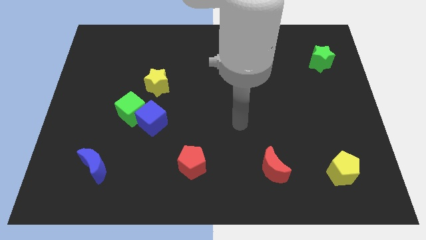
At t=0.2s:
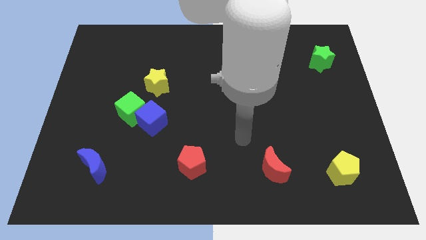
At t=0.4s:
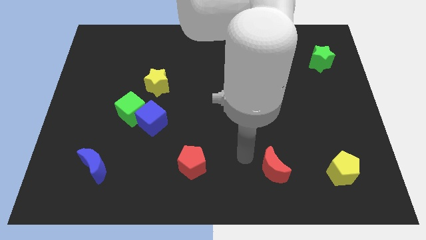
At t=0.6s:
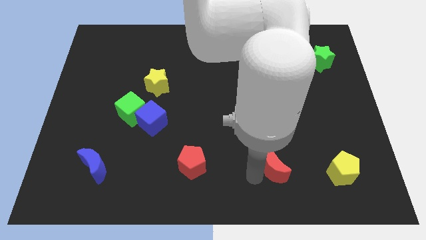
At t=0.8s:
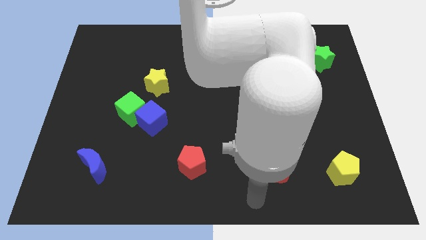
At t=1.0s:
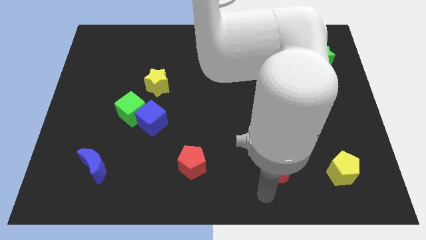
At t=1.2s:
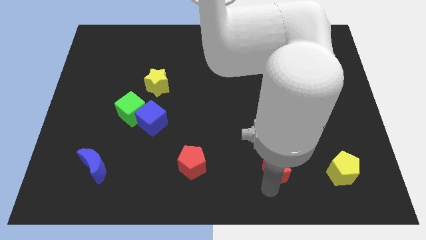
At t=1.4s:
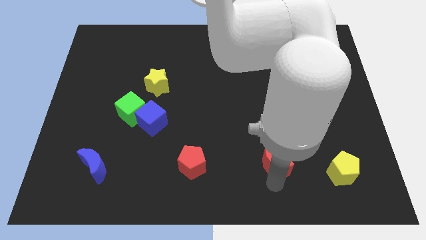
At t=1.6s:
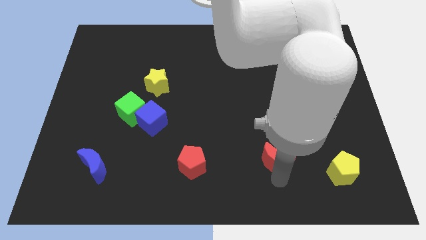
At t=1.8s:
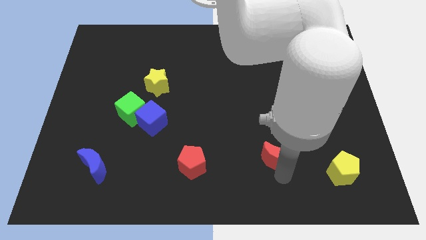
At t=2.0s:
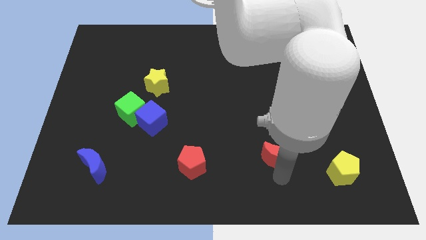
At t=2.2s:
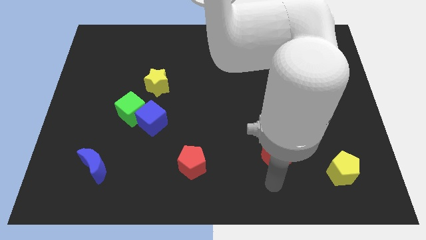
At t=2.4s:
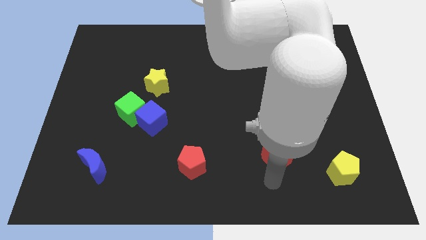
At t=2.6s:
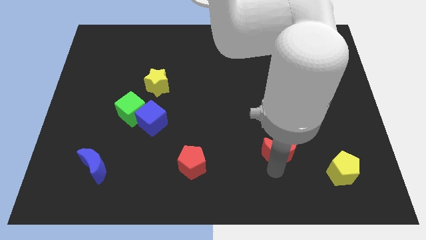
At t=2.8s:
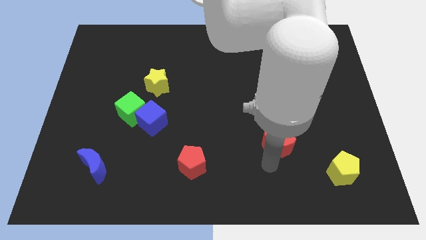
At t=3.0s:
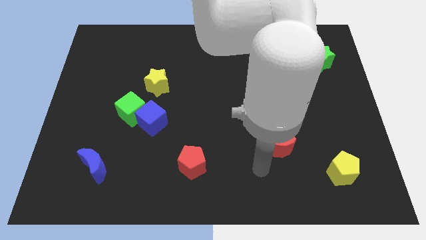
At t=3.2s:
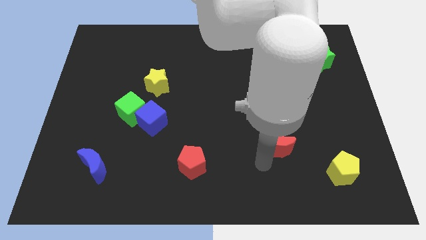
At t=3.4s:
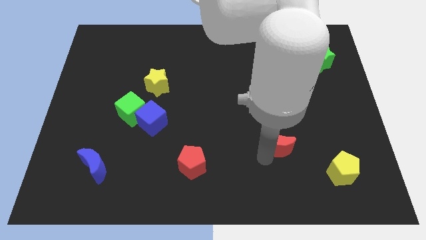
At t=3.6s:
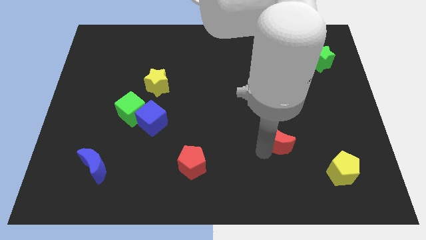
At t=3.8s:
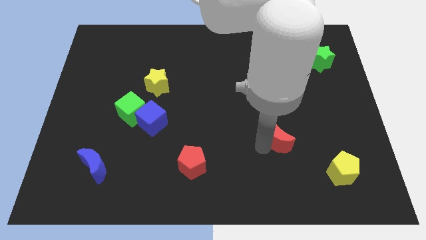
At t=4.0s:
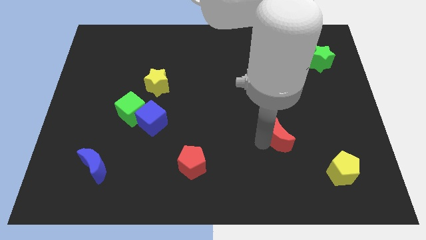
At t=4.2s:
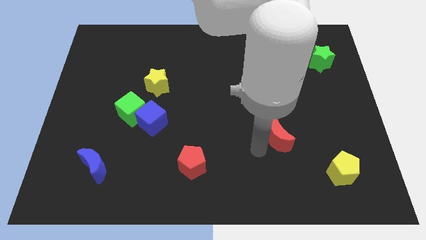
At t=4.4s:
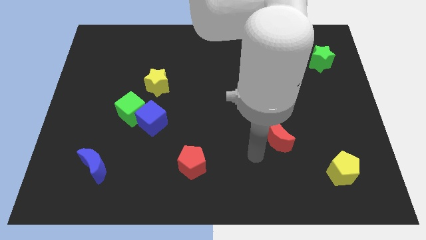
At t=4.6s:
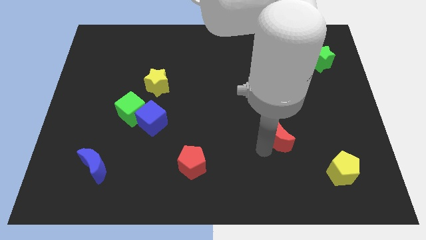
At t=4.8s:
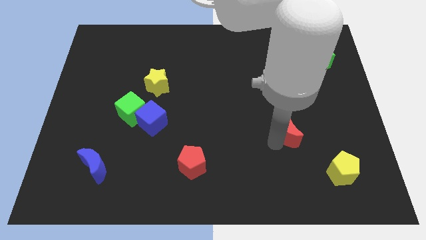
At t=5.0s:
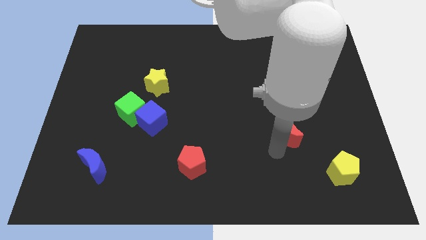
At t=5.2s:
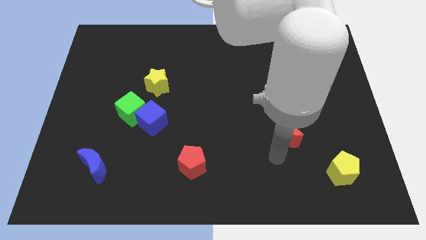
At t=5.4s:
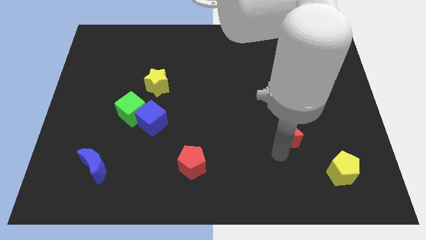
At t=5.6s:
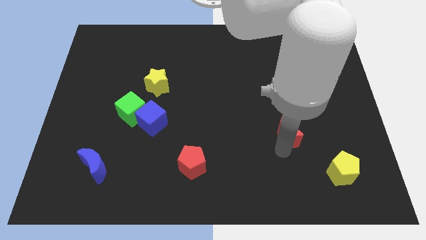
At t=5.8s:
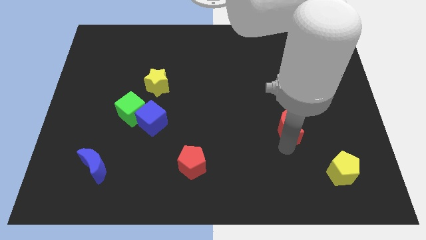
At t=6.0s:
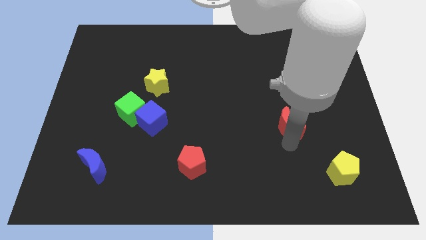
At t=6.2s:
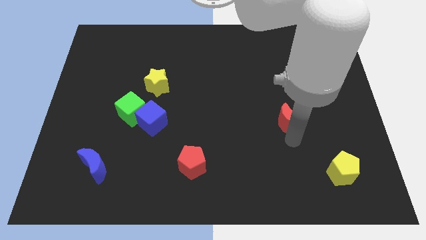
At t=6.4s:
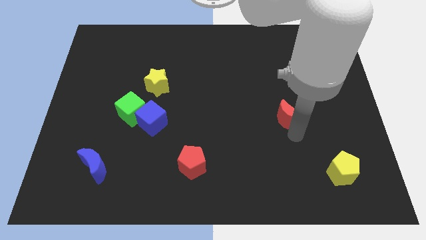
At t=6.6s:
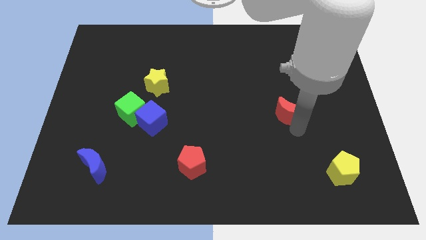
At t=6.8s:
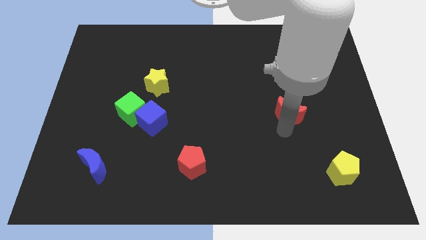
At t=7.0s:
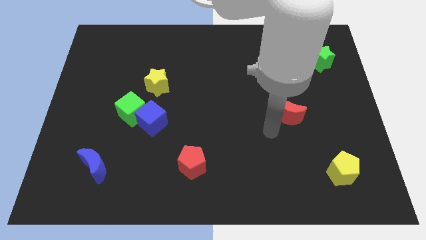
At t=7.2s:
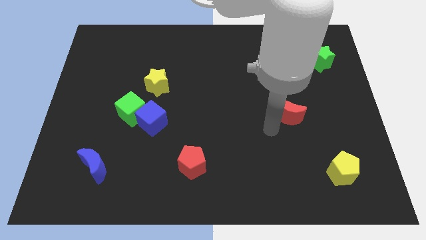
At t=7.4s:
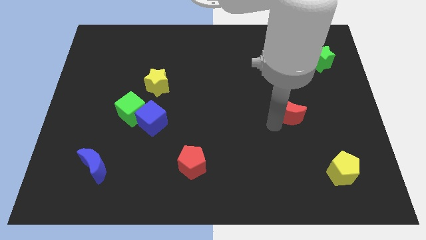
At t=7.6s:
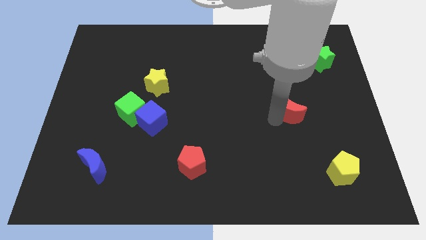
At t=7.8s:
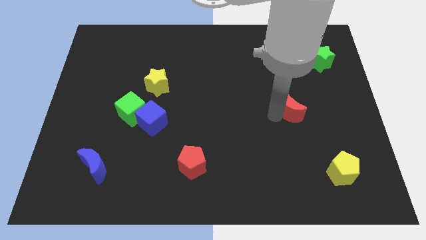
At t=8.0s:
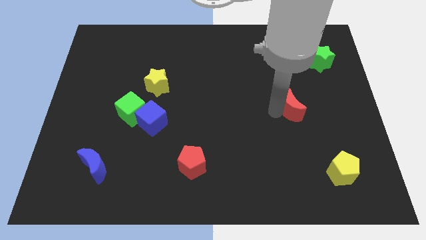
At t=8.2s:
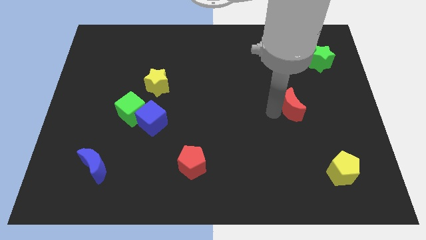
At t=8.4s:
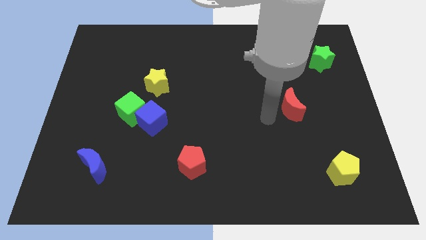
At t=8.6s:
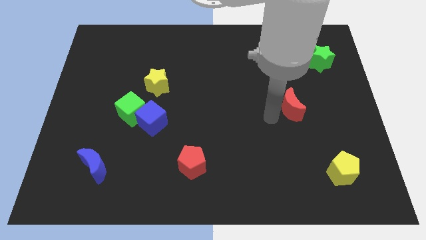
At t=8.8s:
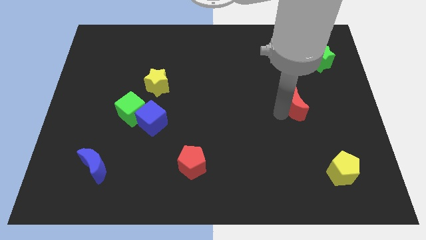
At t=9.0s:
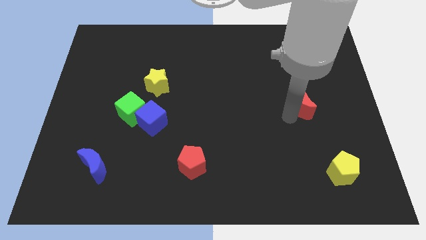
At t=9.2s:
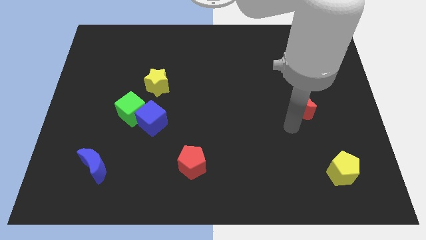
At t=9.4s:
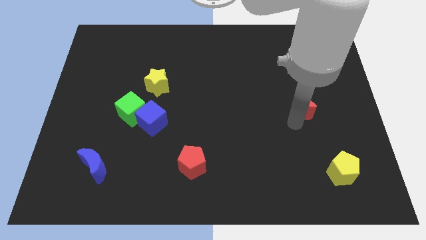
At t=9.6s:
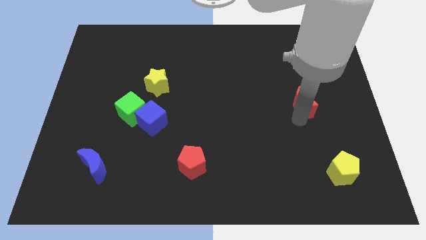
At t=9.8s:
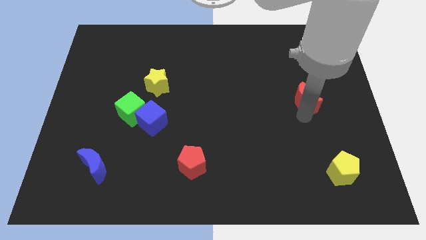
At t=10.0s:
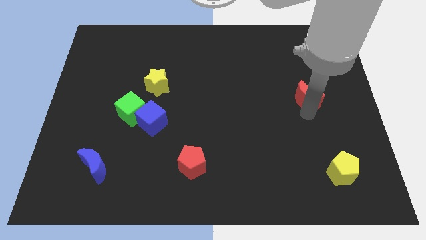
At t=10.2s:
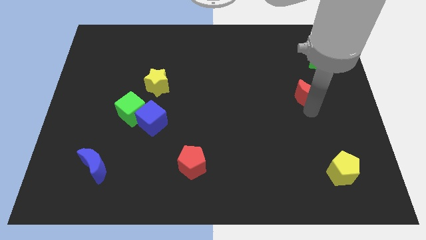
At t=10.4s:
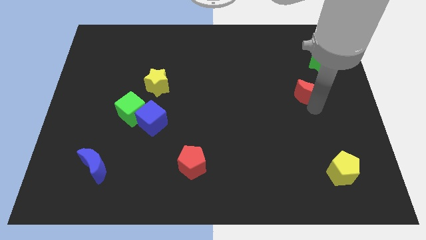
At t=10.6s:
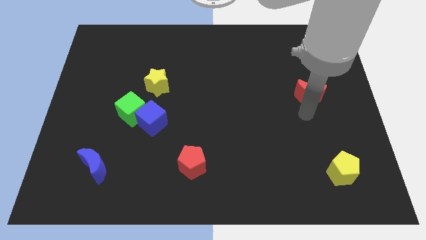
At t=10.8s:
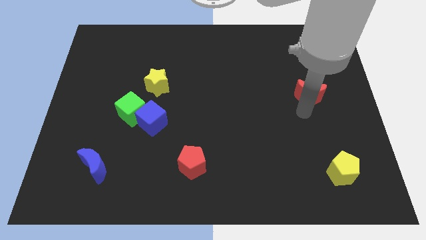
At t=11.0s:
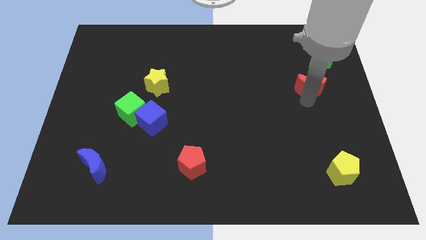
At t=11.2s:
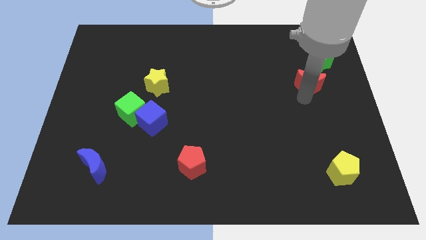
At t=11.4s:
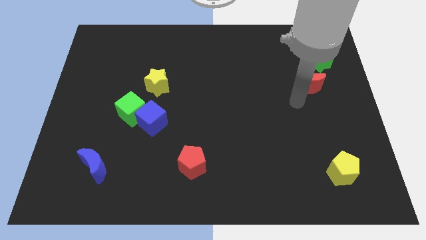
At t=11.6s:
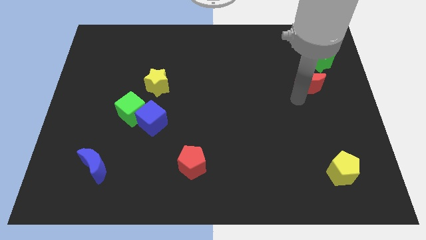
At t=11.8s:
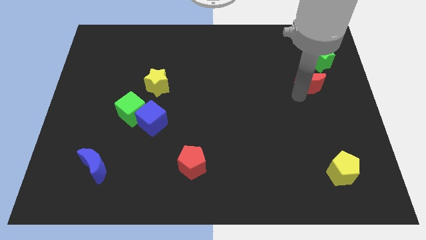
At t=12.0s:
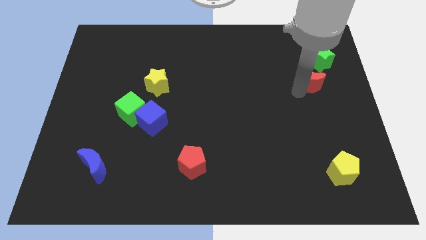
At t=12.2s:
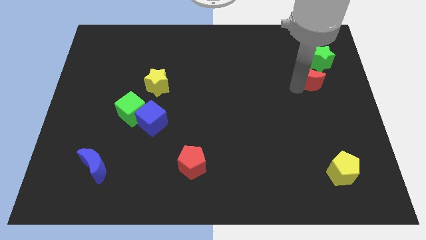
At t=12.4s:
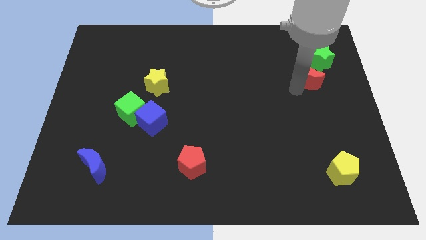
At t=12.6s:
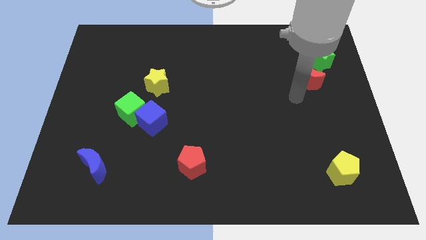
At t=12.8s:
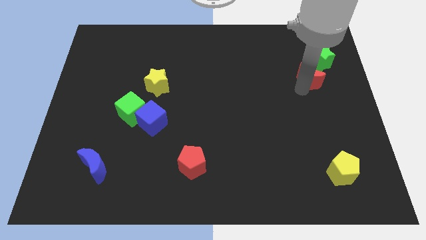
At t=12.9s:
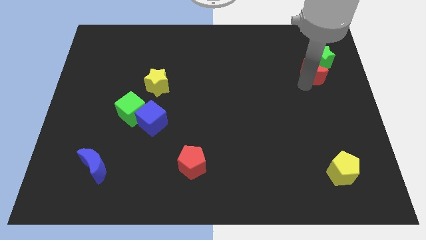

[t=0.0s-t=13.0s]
push the red moon towards the green star

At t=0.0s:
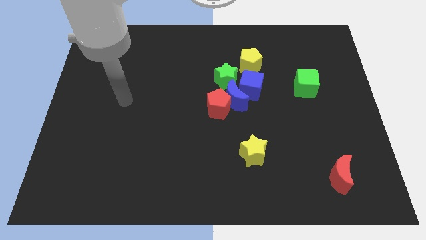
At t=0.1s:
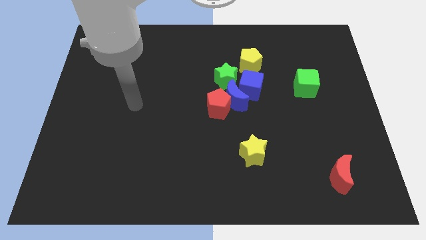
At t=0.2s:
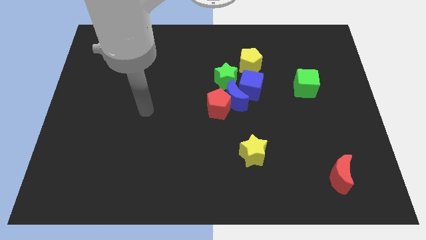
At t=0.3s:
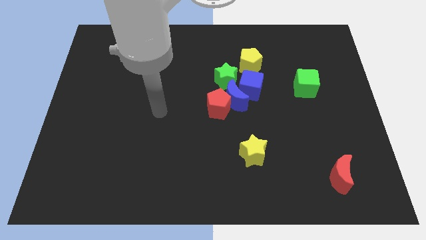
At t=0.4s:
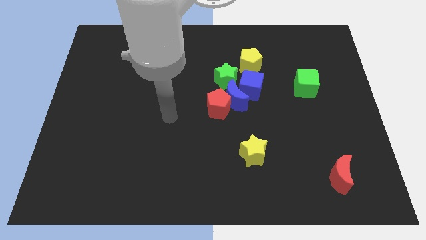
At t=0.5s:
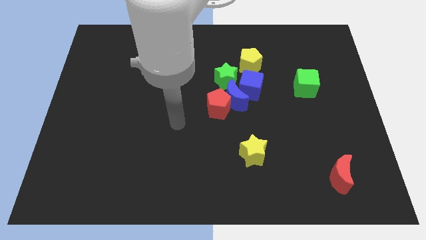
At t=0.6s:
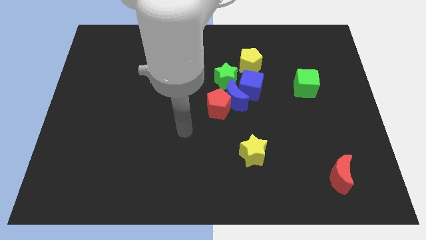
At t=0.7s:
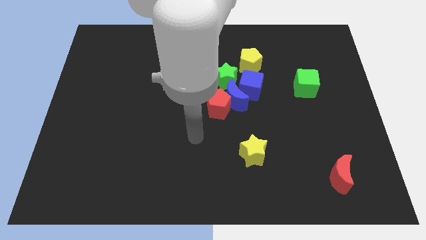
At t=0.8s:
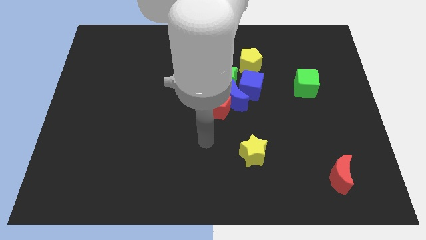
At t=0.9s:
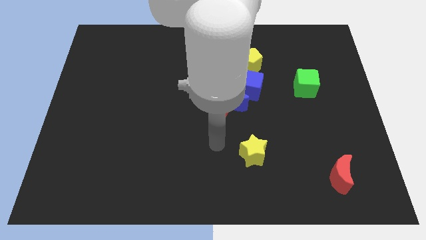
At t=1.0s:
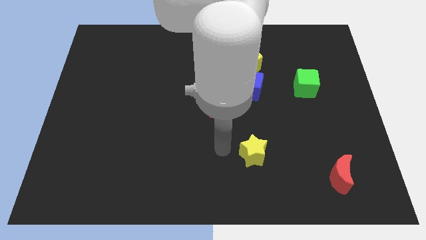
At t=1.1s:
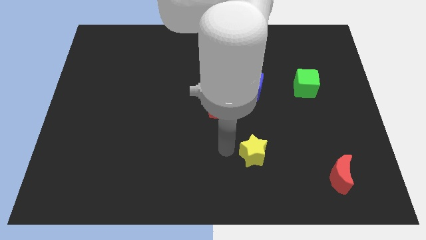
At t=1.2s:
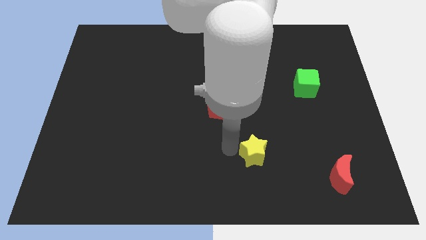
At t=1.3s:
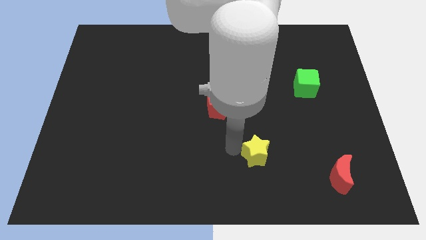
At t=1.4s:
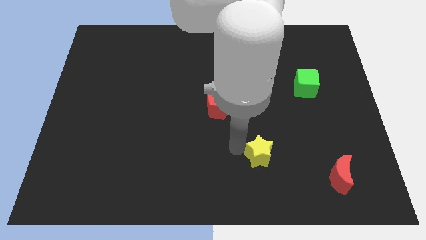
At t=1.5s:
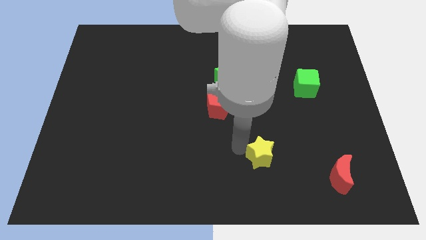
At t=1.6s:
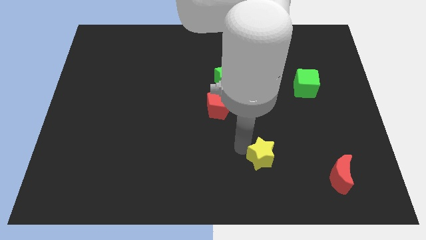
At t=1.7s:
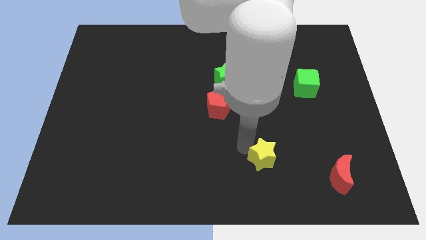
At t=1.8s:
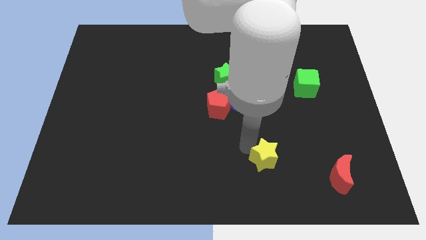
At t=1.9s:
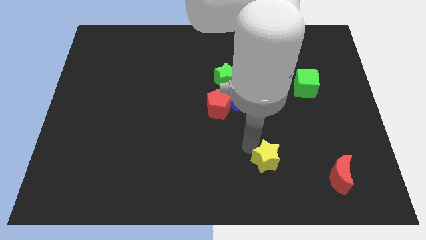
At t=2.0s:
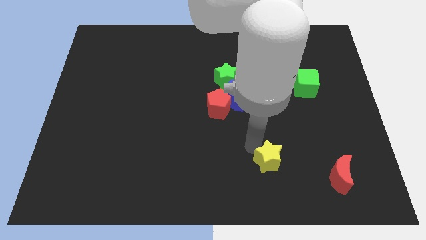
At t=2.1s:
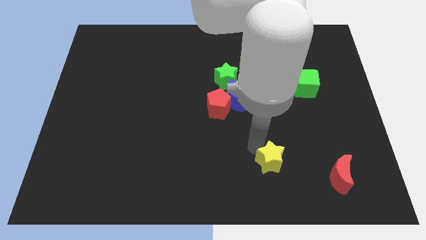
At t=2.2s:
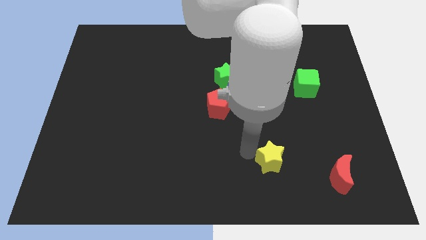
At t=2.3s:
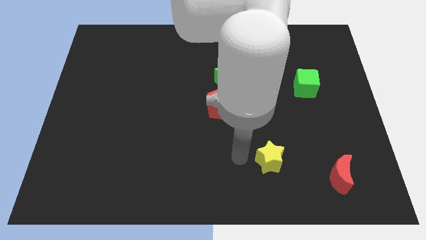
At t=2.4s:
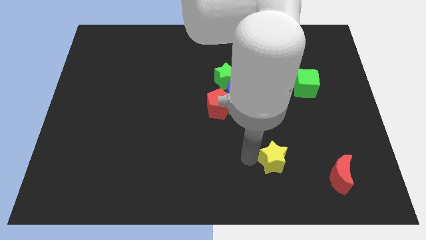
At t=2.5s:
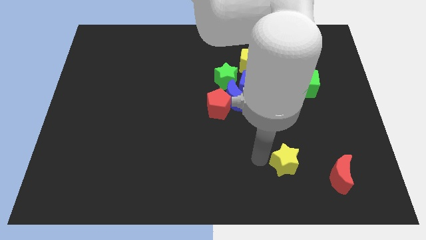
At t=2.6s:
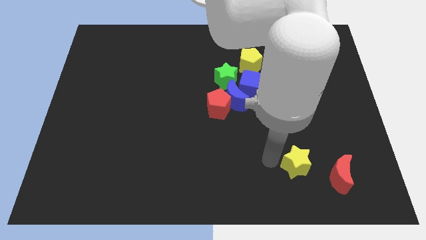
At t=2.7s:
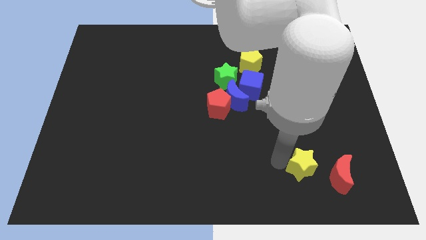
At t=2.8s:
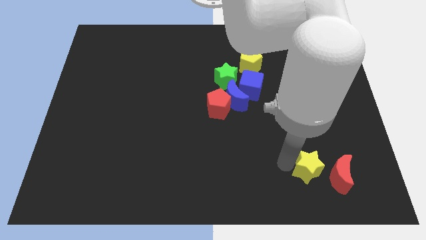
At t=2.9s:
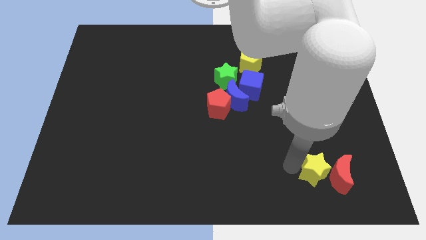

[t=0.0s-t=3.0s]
push the yellow star to the red moon
